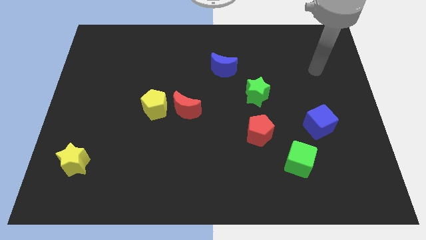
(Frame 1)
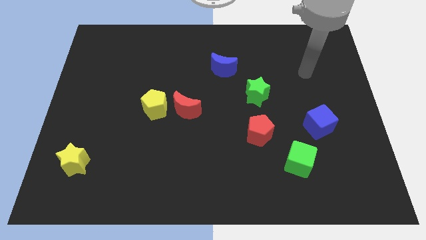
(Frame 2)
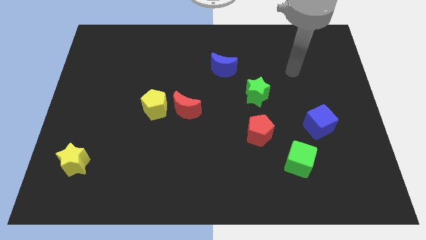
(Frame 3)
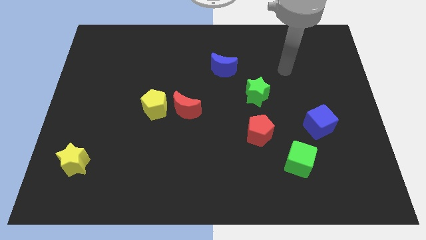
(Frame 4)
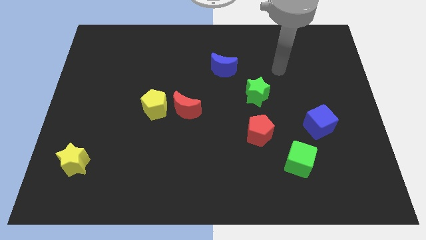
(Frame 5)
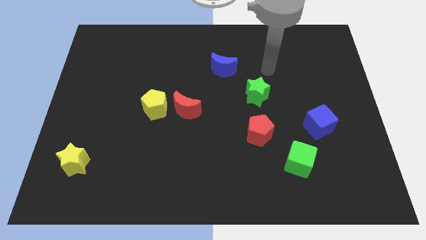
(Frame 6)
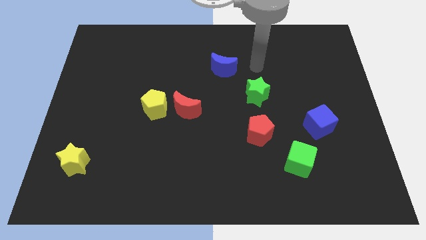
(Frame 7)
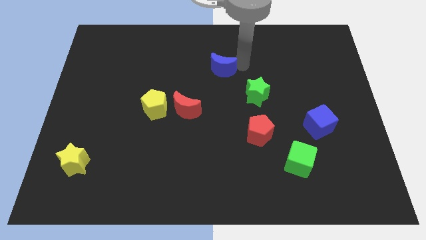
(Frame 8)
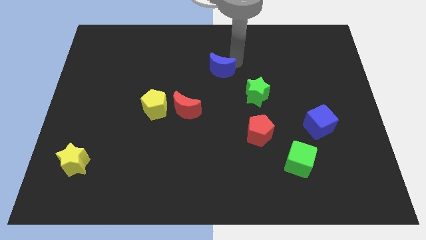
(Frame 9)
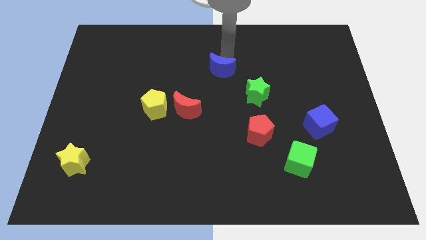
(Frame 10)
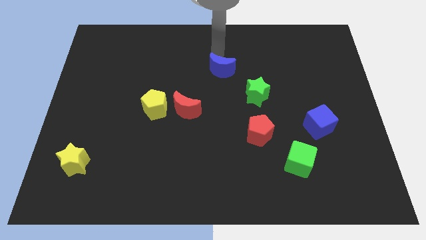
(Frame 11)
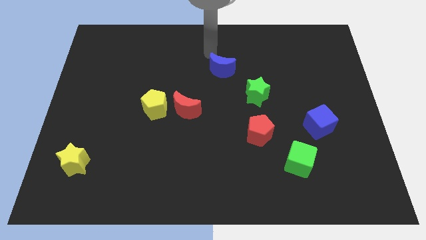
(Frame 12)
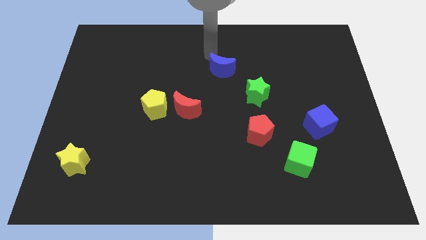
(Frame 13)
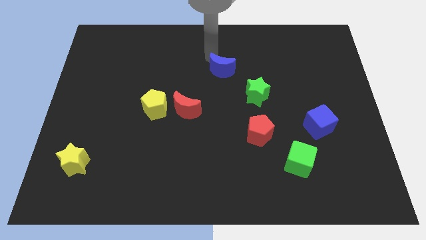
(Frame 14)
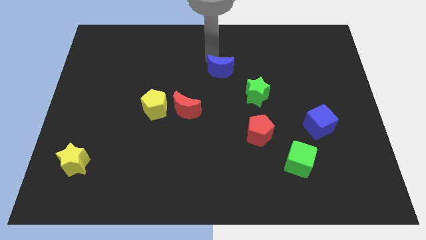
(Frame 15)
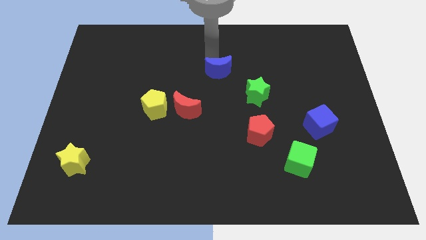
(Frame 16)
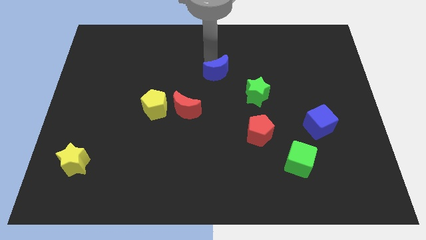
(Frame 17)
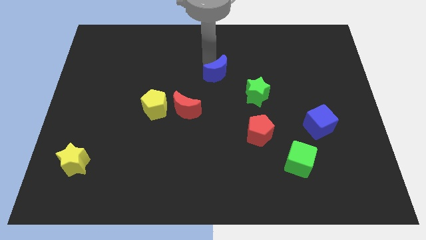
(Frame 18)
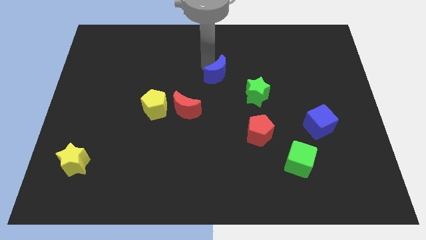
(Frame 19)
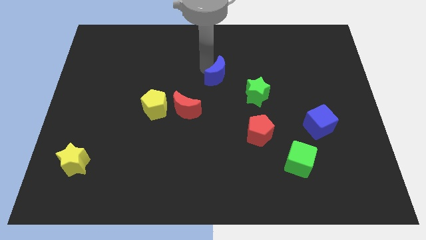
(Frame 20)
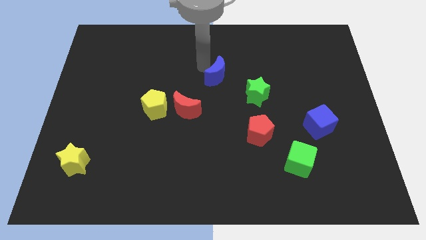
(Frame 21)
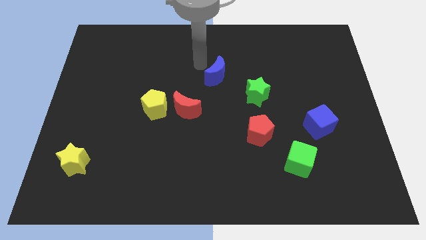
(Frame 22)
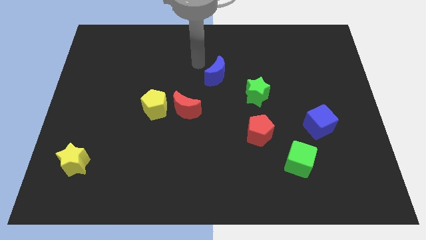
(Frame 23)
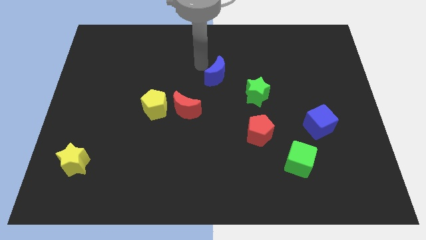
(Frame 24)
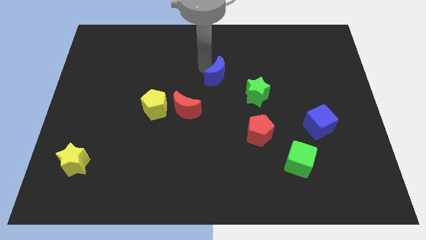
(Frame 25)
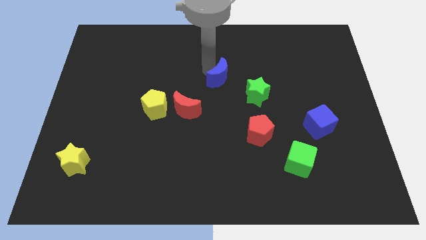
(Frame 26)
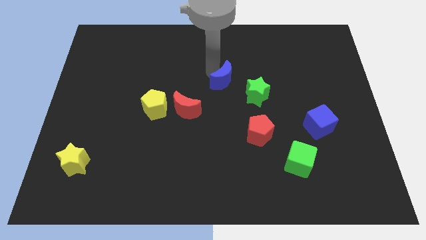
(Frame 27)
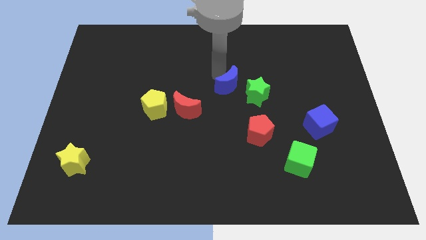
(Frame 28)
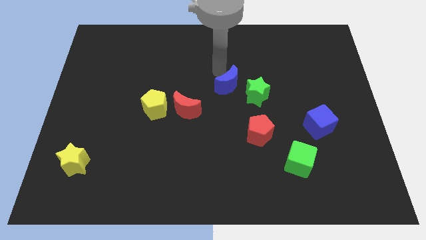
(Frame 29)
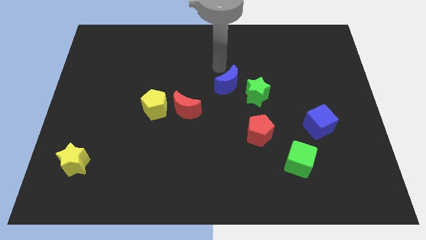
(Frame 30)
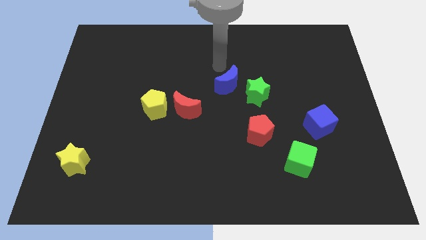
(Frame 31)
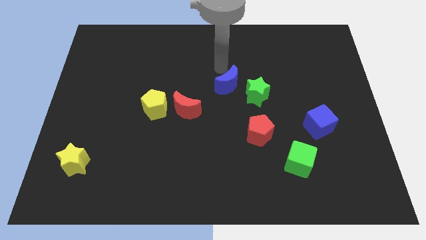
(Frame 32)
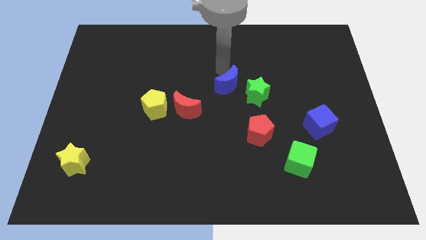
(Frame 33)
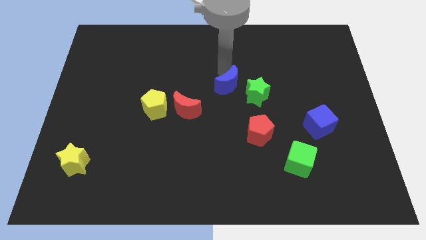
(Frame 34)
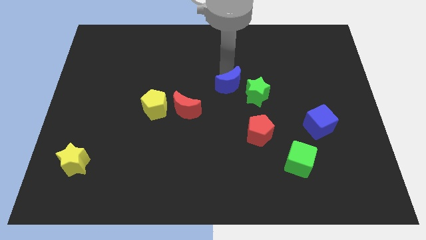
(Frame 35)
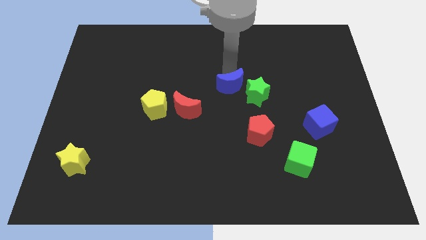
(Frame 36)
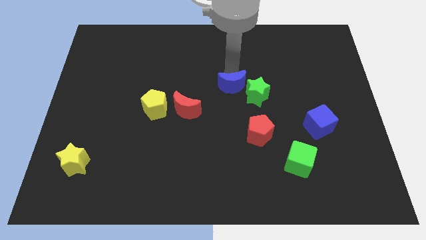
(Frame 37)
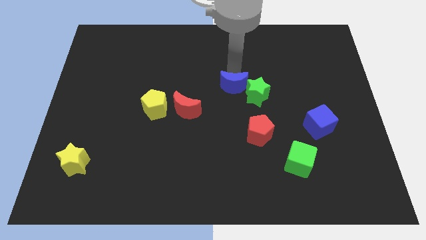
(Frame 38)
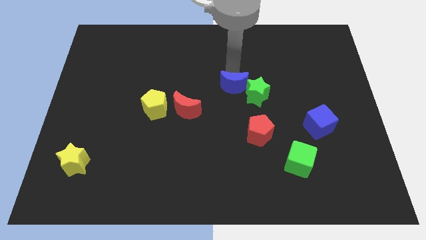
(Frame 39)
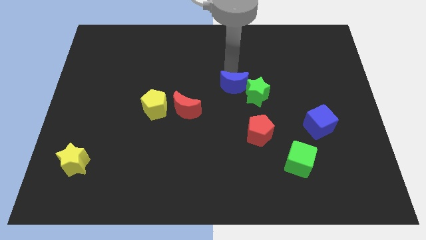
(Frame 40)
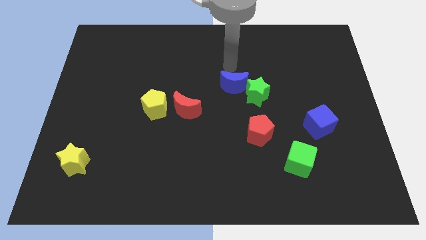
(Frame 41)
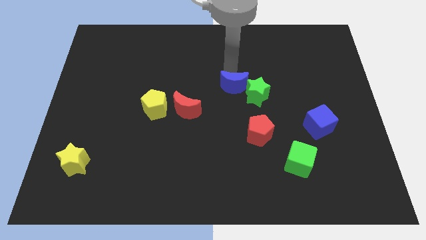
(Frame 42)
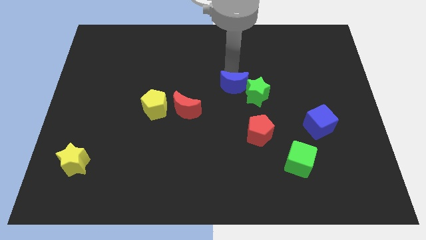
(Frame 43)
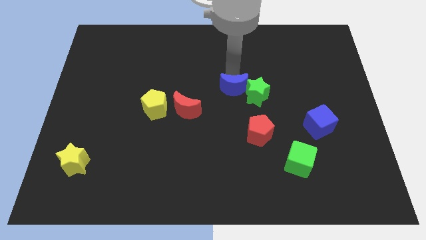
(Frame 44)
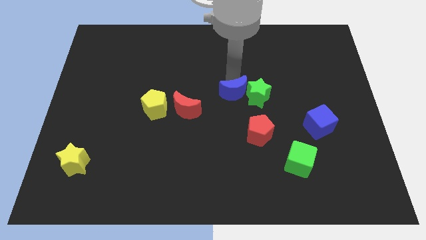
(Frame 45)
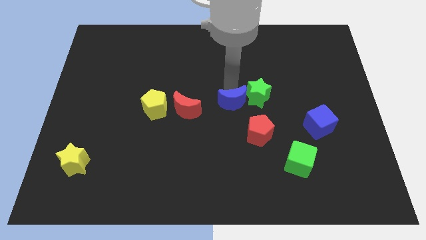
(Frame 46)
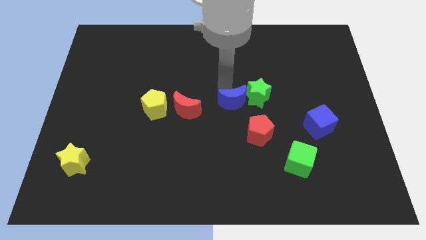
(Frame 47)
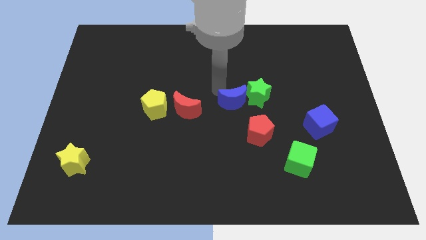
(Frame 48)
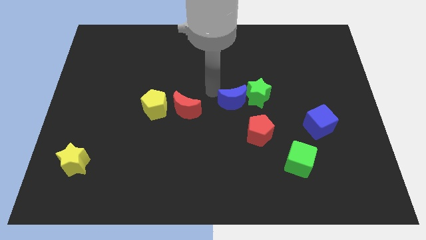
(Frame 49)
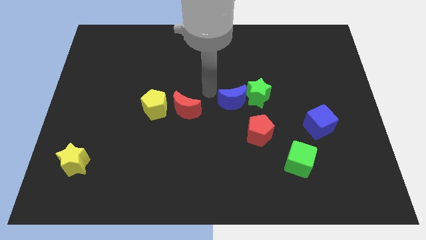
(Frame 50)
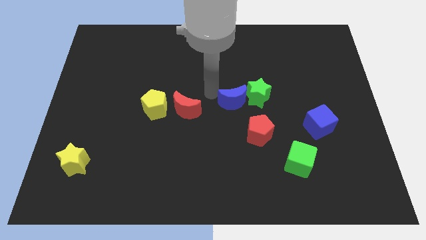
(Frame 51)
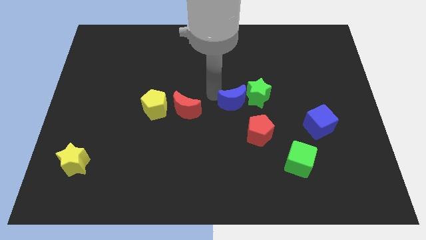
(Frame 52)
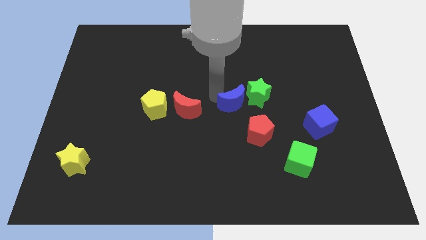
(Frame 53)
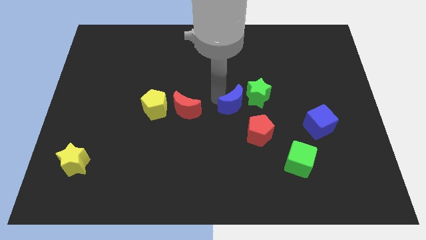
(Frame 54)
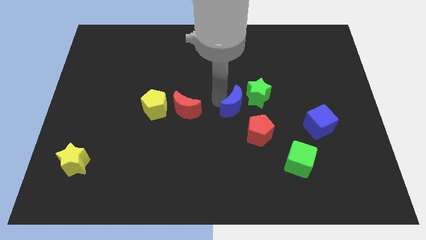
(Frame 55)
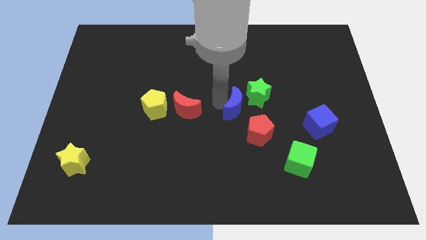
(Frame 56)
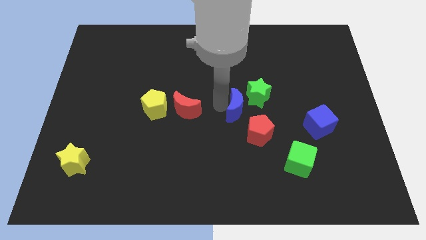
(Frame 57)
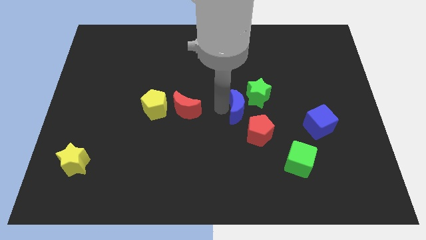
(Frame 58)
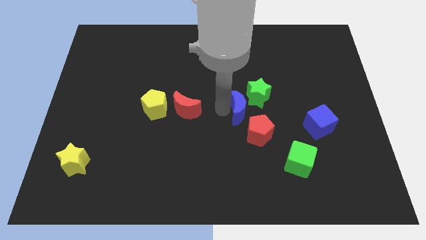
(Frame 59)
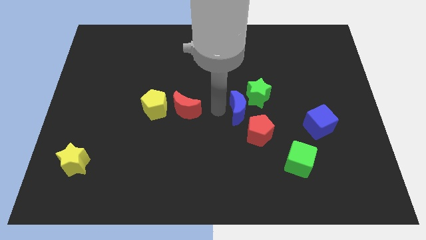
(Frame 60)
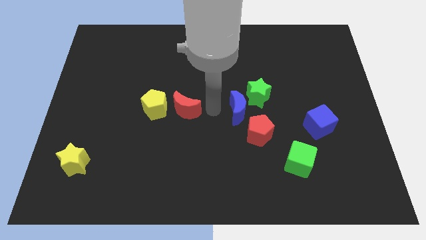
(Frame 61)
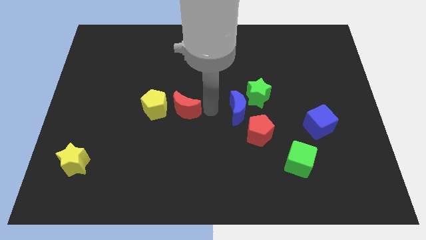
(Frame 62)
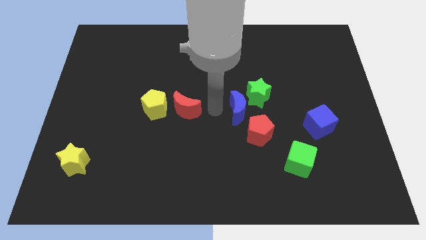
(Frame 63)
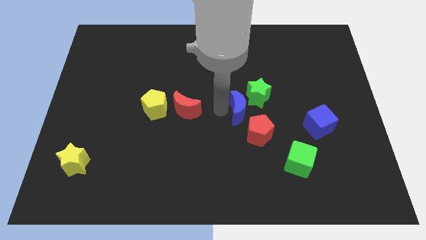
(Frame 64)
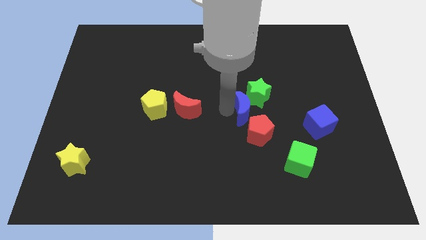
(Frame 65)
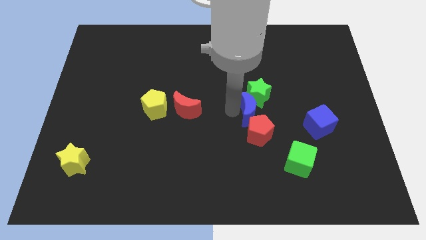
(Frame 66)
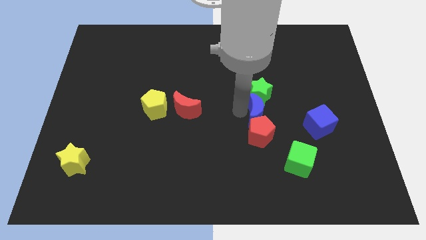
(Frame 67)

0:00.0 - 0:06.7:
slide the blue moon to the bottom right of the green star

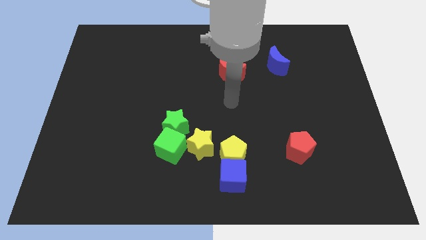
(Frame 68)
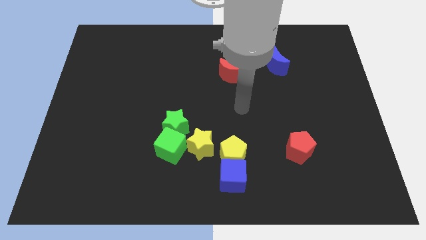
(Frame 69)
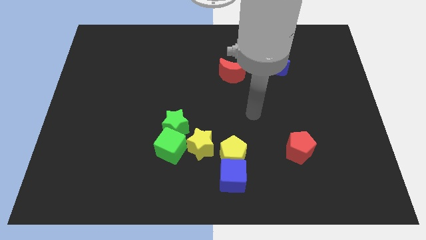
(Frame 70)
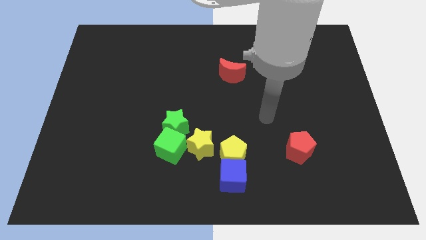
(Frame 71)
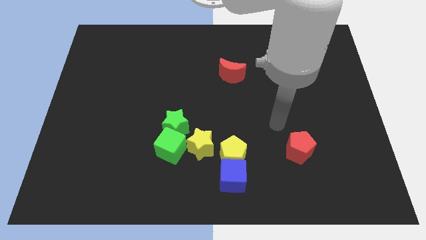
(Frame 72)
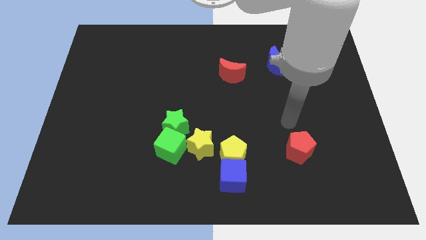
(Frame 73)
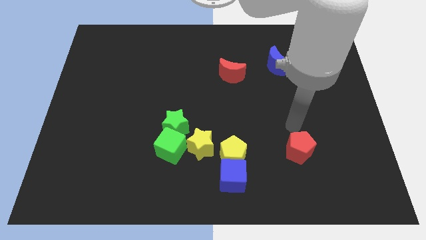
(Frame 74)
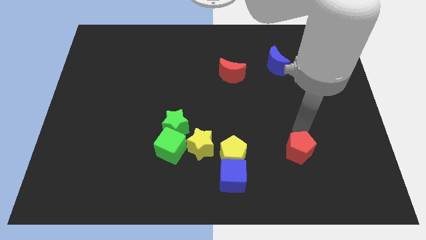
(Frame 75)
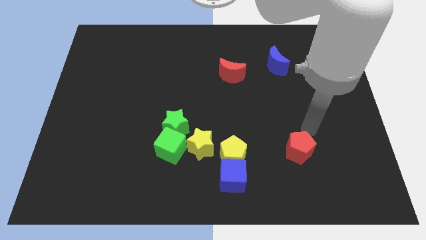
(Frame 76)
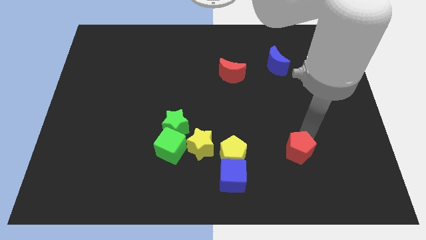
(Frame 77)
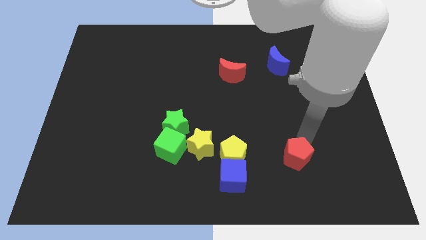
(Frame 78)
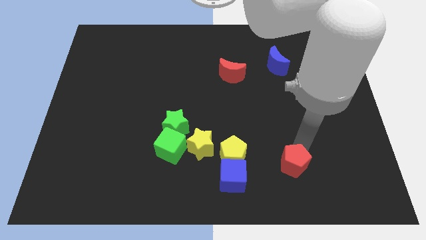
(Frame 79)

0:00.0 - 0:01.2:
push the red pentagon to the right of the blue cube
